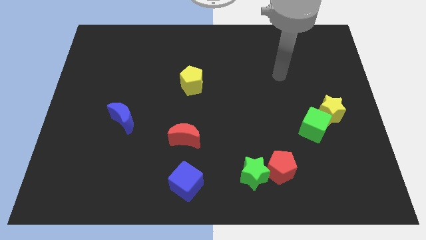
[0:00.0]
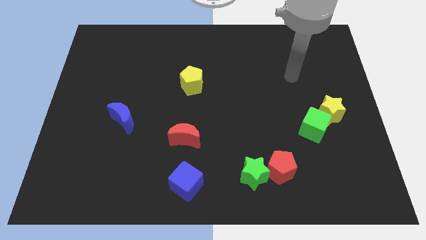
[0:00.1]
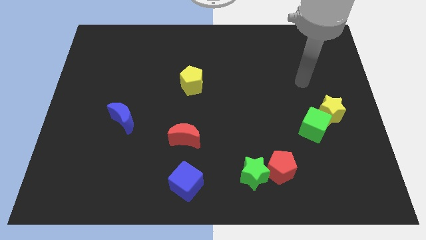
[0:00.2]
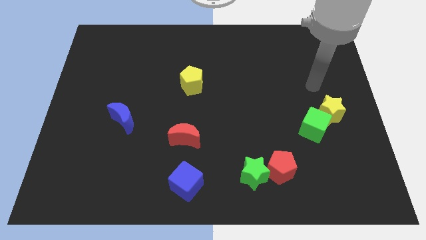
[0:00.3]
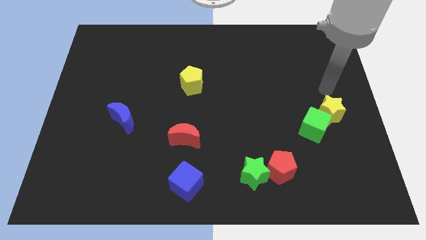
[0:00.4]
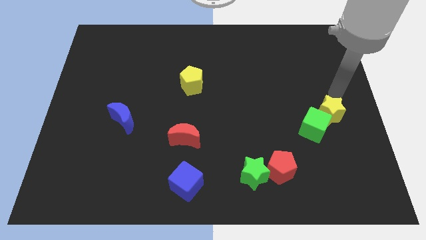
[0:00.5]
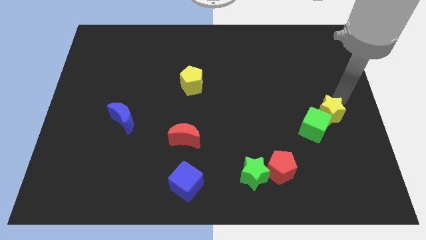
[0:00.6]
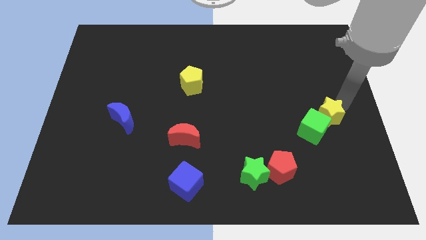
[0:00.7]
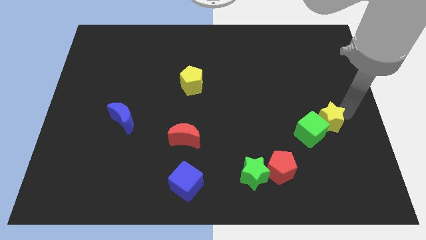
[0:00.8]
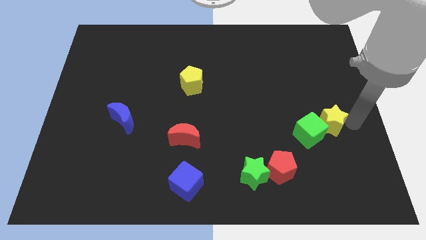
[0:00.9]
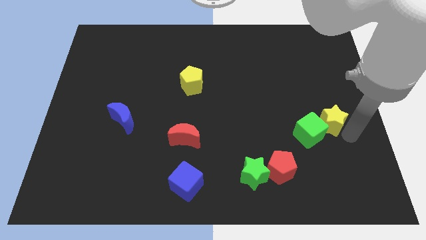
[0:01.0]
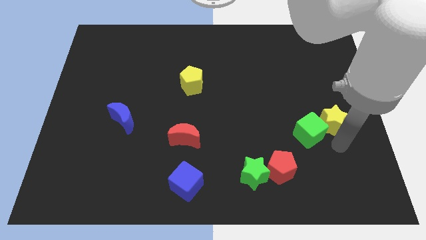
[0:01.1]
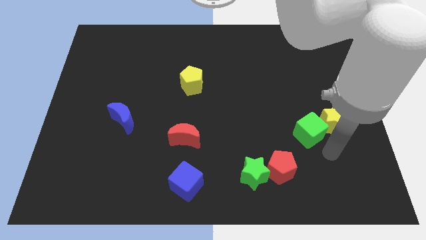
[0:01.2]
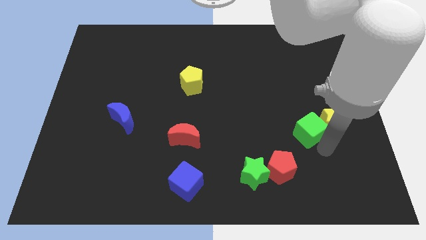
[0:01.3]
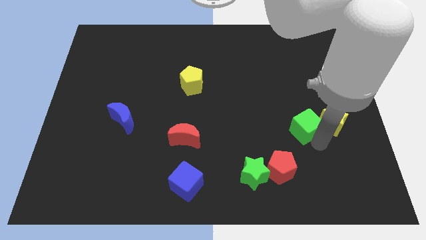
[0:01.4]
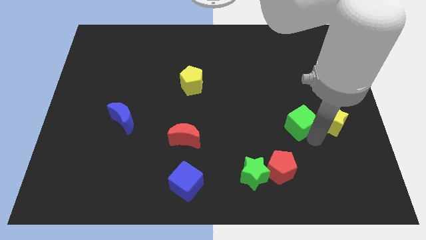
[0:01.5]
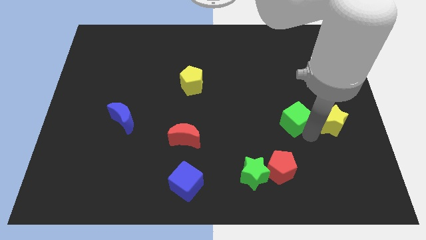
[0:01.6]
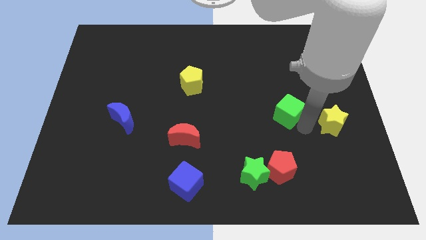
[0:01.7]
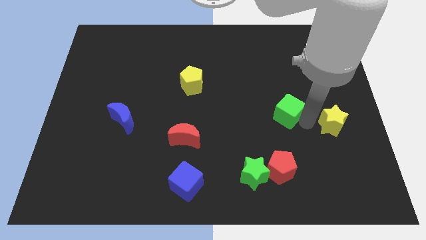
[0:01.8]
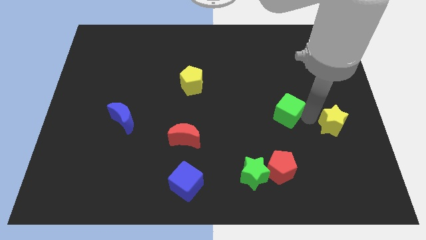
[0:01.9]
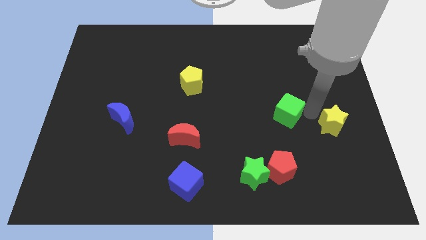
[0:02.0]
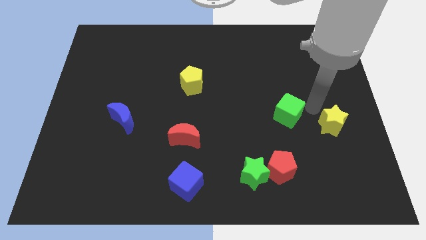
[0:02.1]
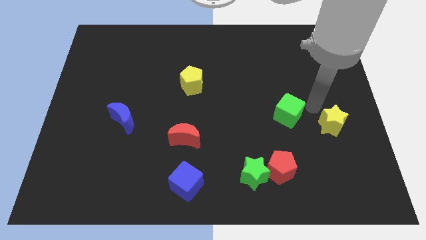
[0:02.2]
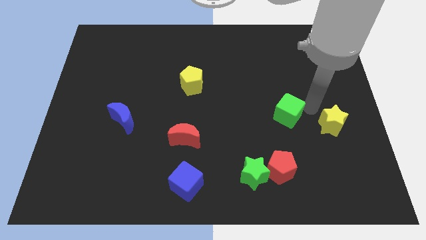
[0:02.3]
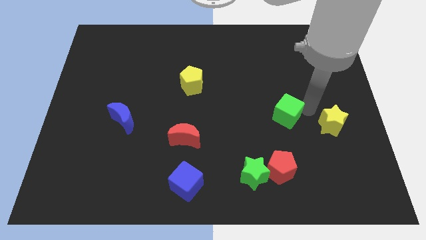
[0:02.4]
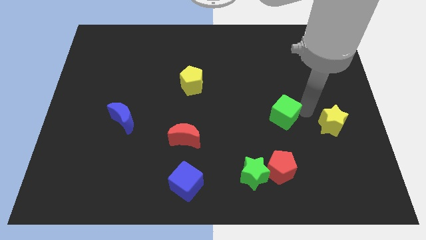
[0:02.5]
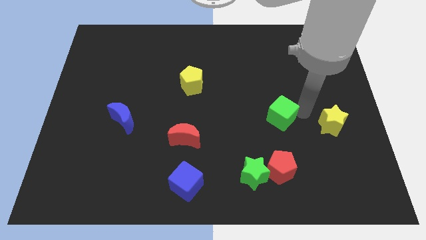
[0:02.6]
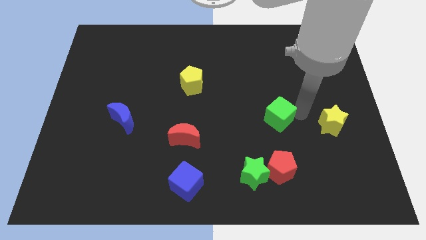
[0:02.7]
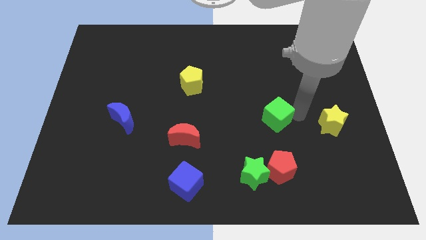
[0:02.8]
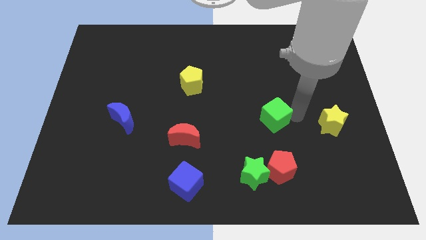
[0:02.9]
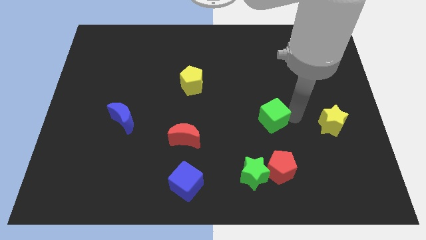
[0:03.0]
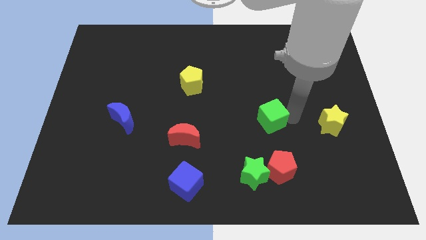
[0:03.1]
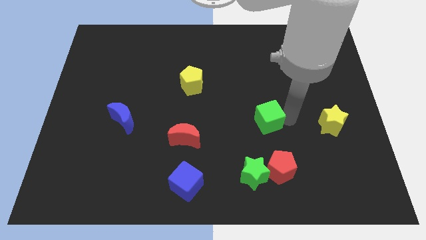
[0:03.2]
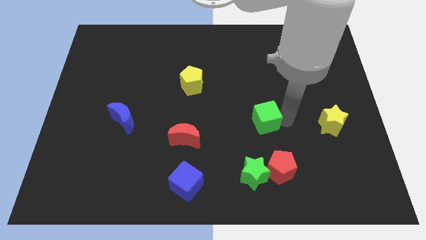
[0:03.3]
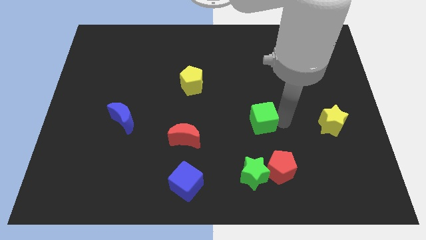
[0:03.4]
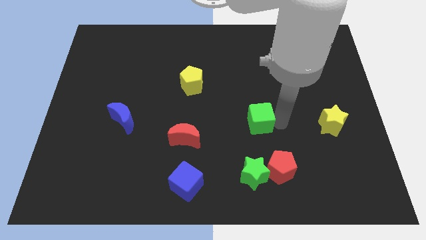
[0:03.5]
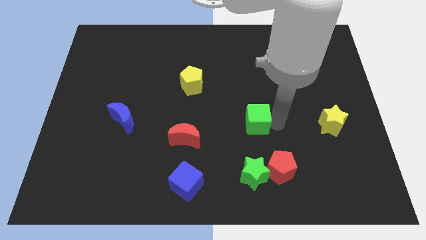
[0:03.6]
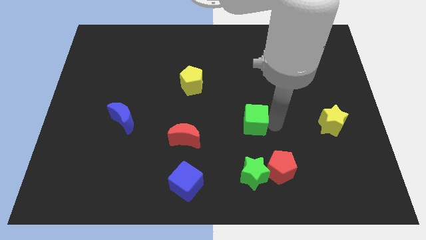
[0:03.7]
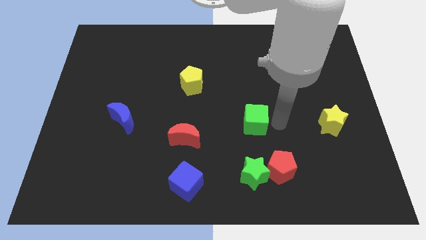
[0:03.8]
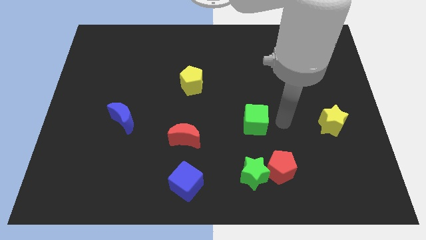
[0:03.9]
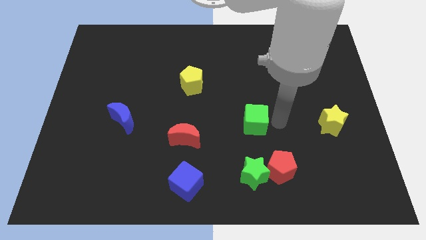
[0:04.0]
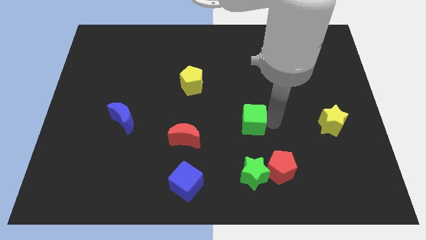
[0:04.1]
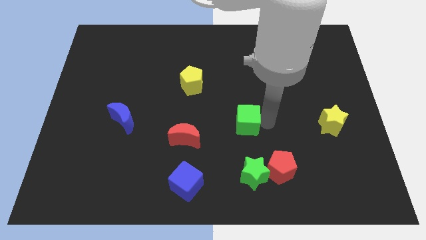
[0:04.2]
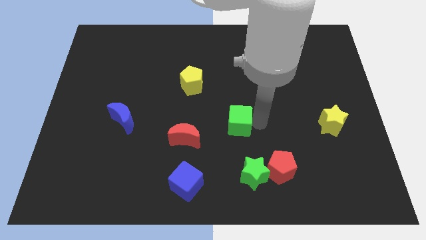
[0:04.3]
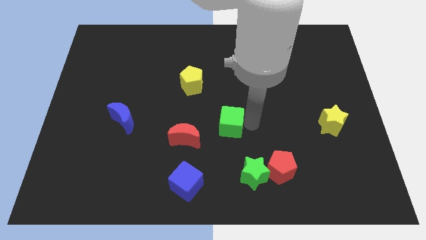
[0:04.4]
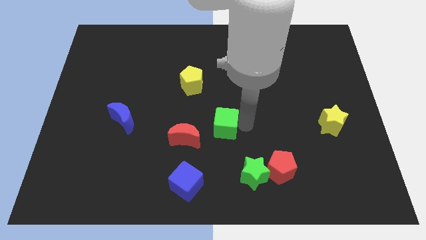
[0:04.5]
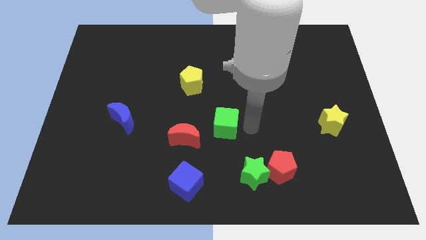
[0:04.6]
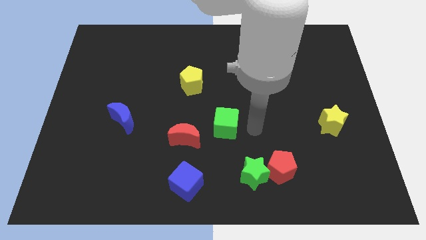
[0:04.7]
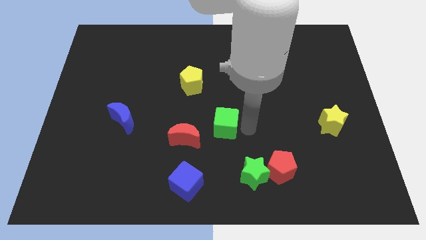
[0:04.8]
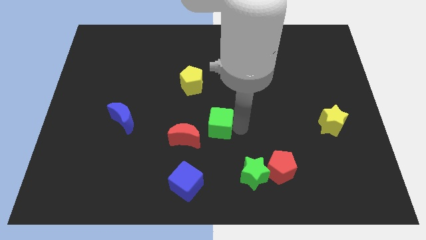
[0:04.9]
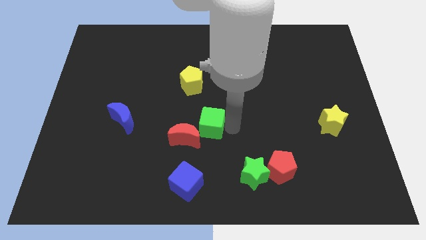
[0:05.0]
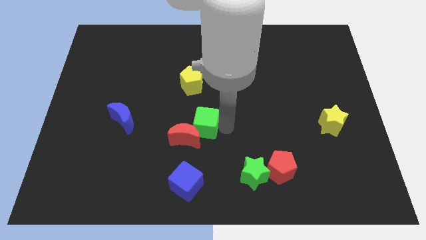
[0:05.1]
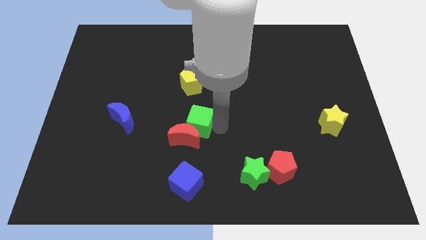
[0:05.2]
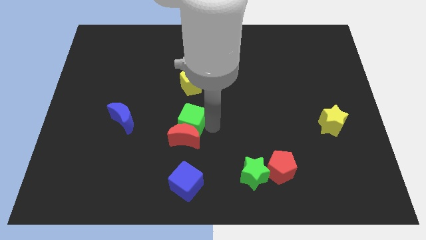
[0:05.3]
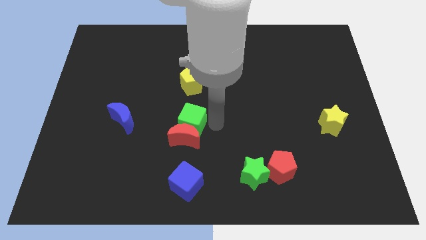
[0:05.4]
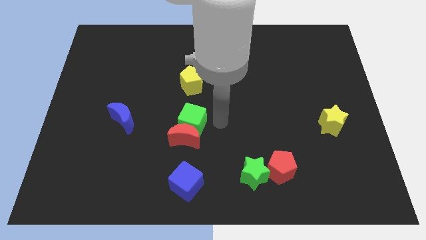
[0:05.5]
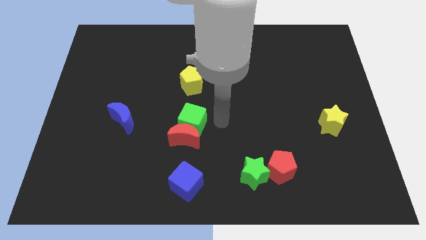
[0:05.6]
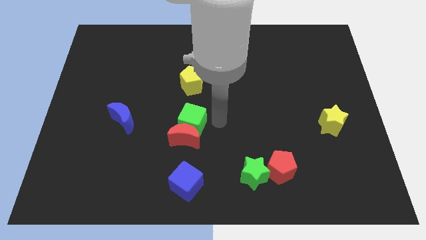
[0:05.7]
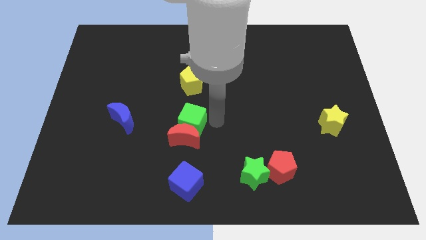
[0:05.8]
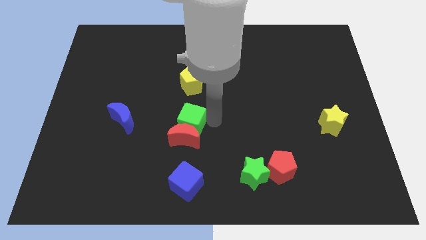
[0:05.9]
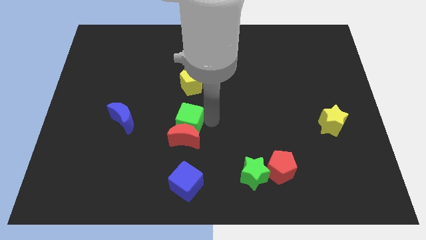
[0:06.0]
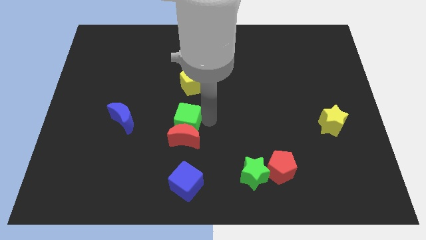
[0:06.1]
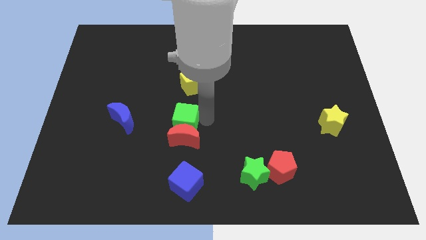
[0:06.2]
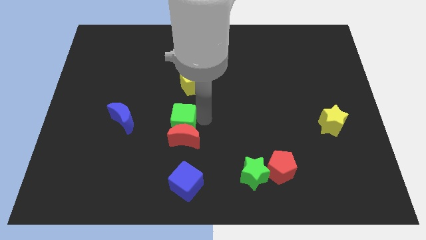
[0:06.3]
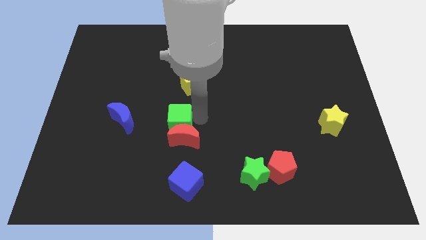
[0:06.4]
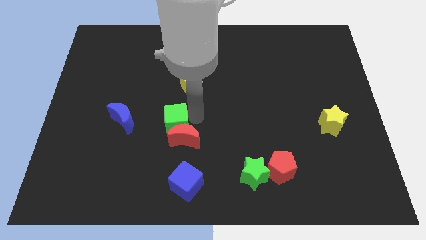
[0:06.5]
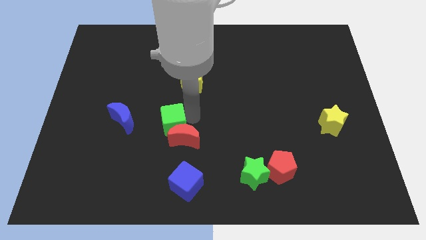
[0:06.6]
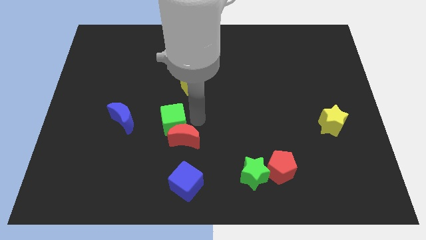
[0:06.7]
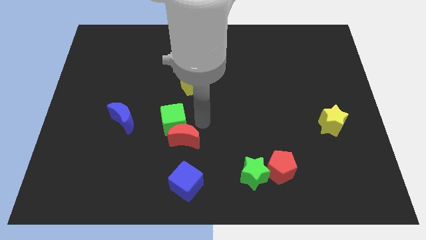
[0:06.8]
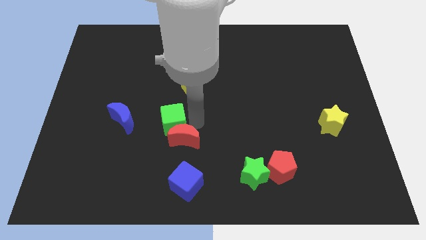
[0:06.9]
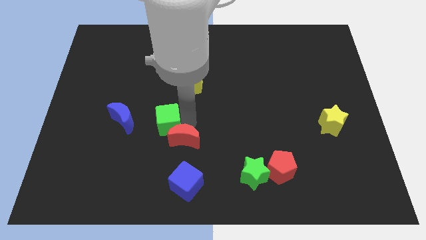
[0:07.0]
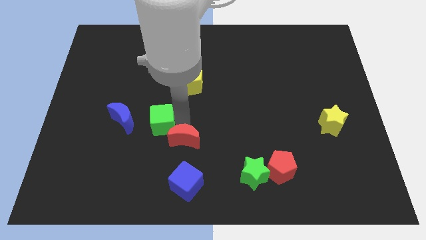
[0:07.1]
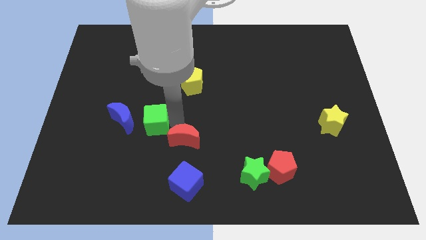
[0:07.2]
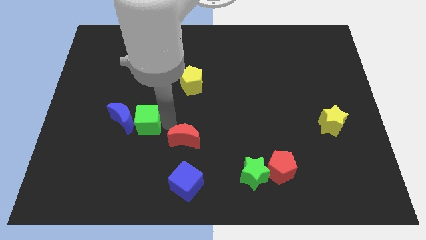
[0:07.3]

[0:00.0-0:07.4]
push the green cube to the blue moon
